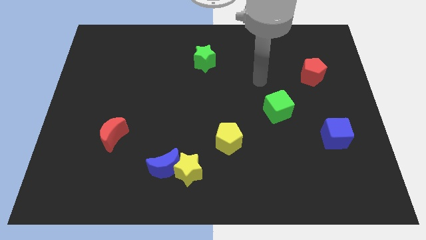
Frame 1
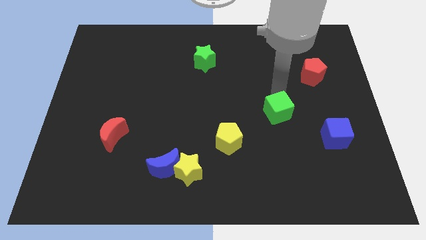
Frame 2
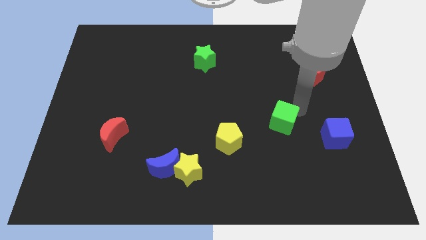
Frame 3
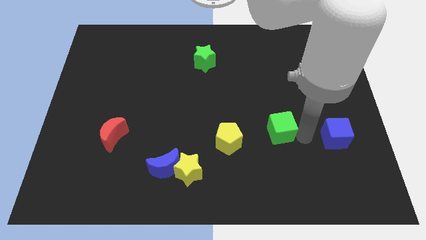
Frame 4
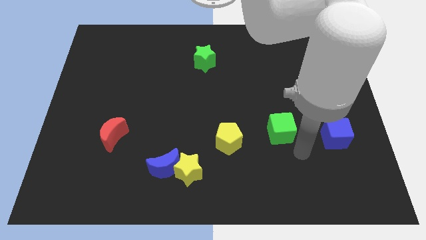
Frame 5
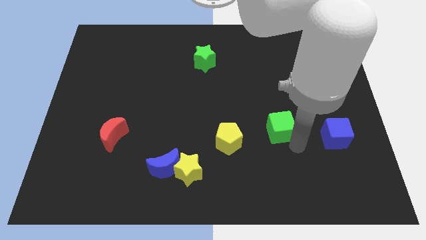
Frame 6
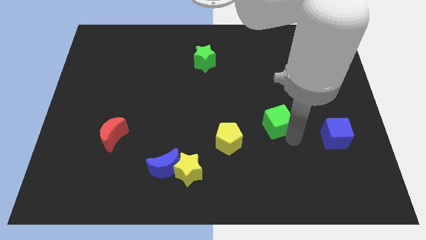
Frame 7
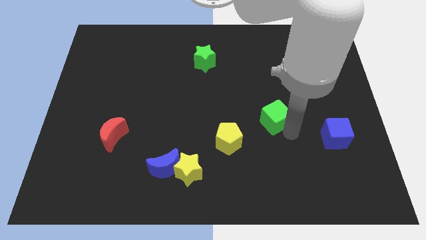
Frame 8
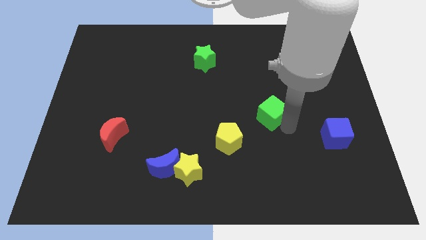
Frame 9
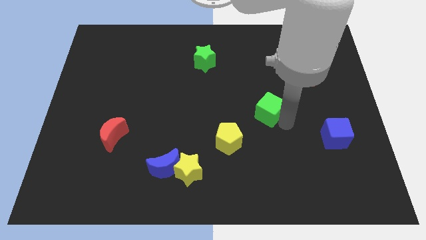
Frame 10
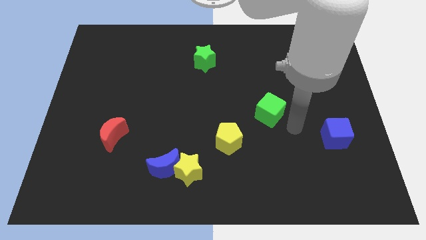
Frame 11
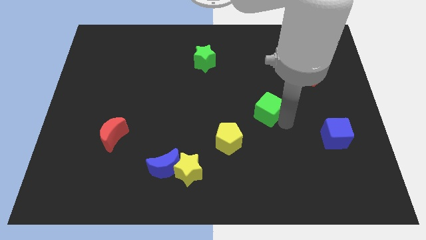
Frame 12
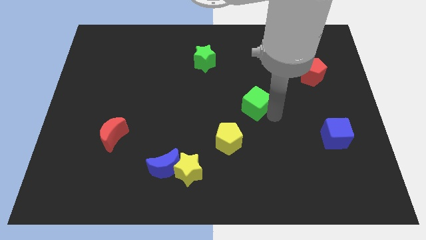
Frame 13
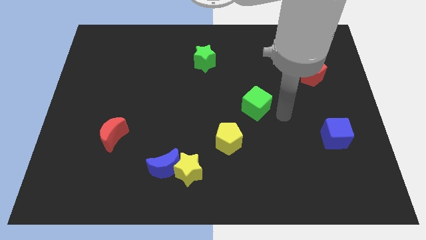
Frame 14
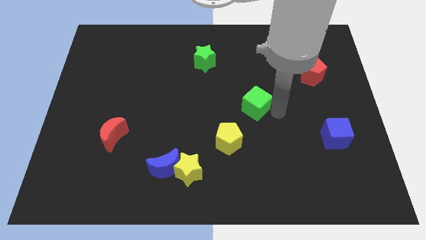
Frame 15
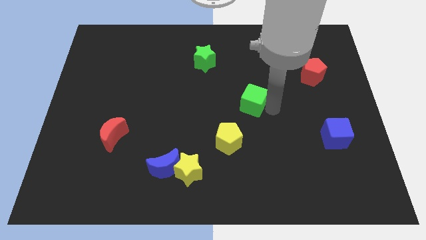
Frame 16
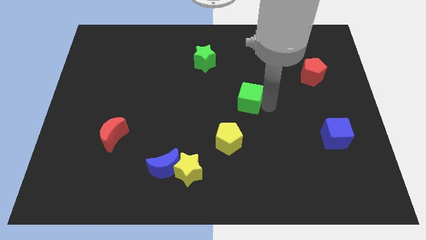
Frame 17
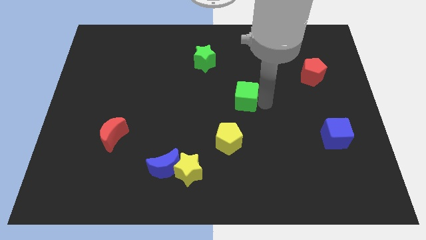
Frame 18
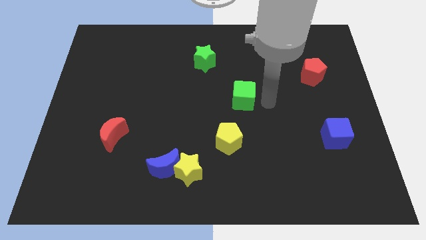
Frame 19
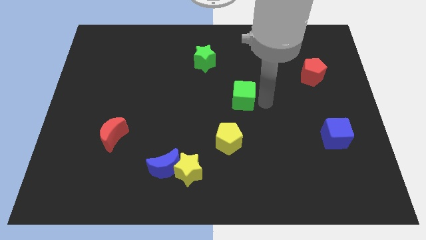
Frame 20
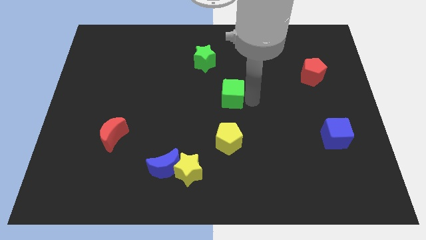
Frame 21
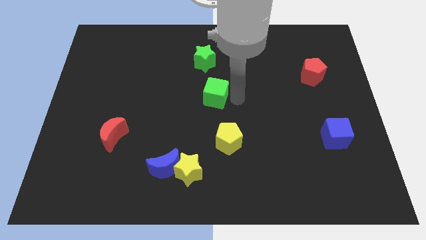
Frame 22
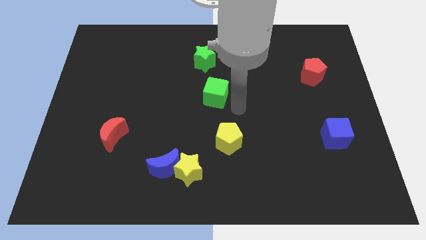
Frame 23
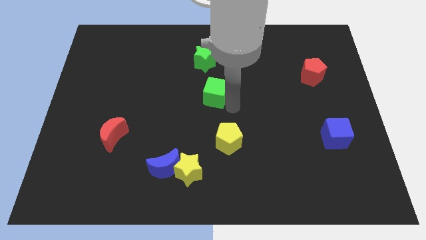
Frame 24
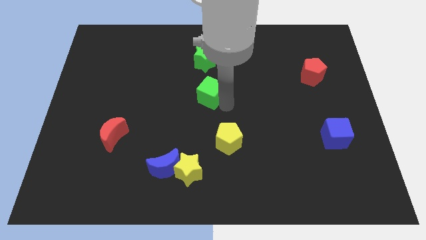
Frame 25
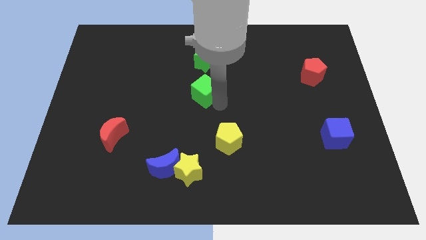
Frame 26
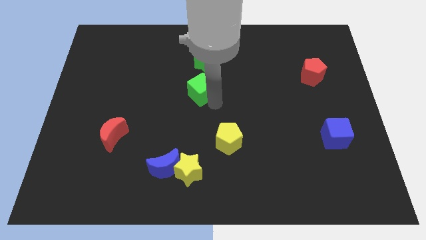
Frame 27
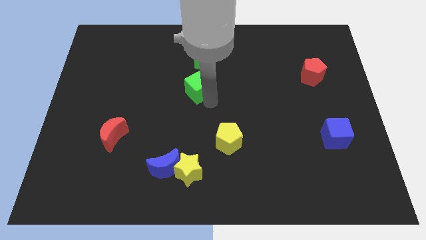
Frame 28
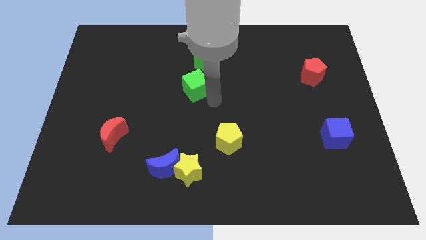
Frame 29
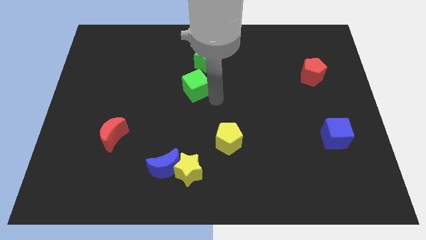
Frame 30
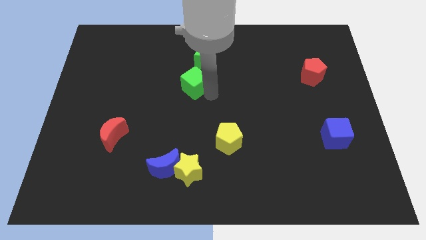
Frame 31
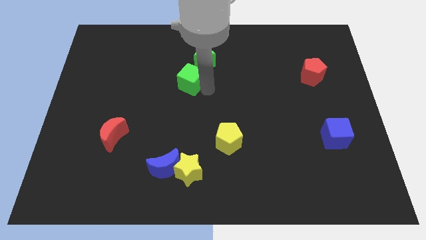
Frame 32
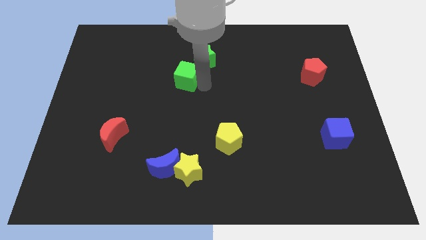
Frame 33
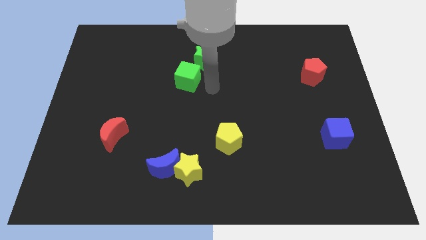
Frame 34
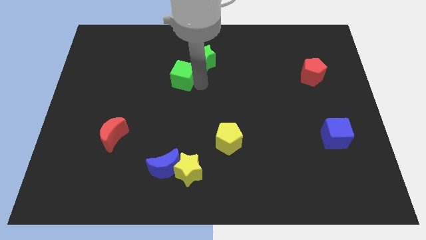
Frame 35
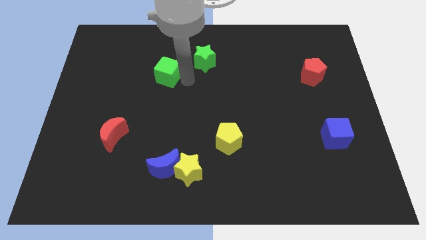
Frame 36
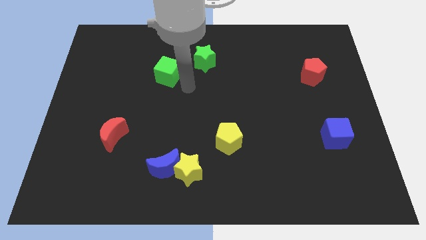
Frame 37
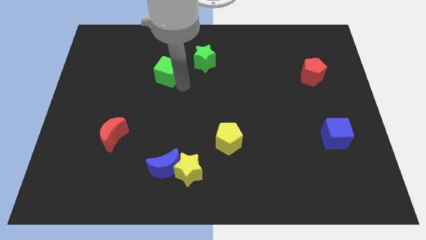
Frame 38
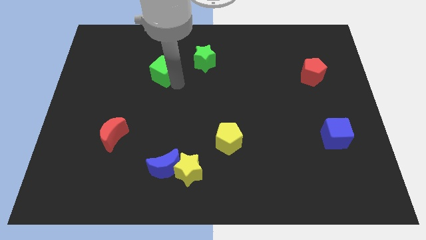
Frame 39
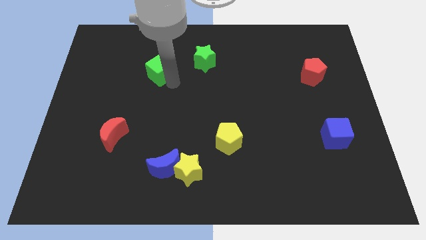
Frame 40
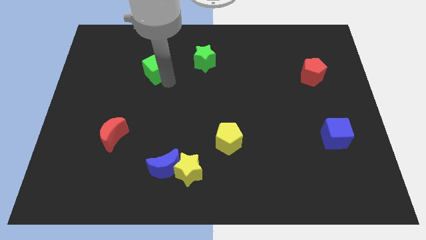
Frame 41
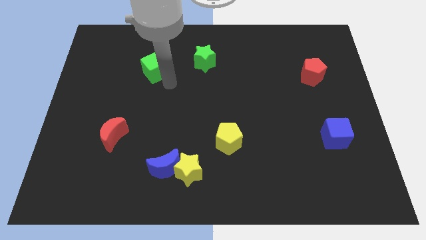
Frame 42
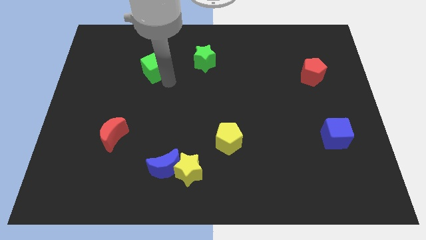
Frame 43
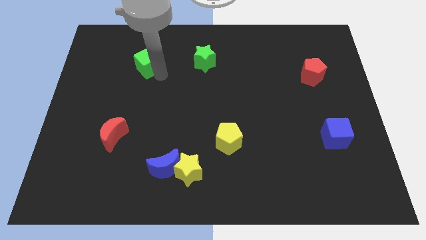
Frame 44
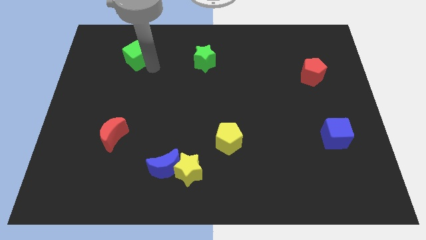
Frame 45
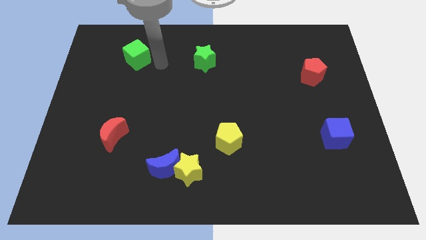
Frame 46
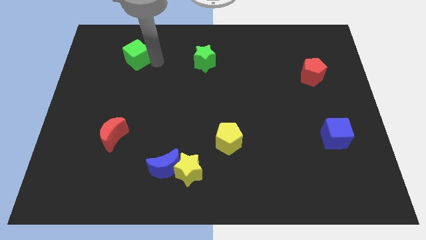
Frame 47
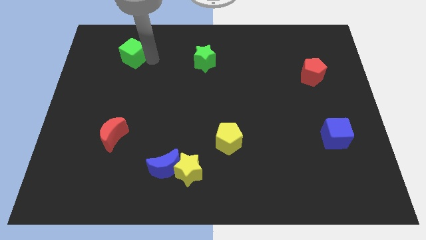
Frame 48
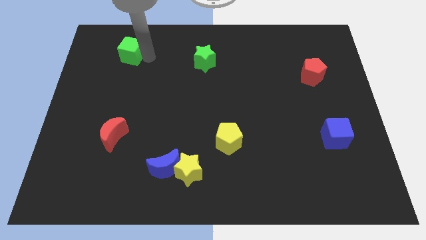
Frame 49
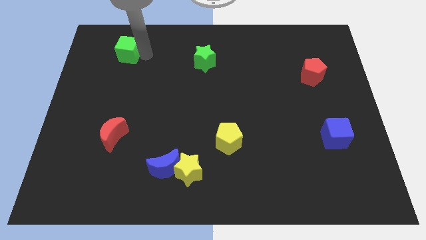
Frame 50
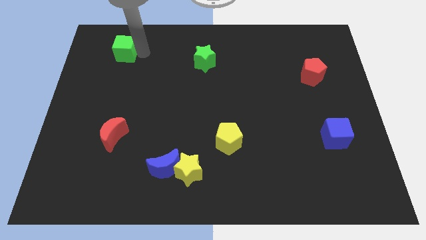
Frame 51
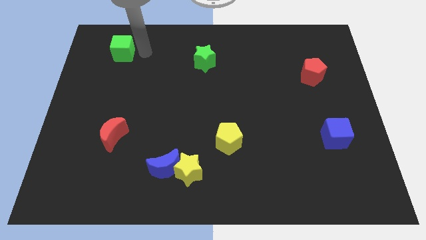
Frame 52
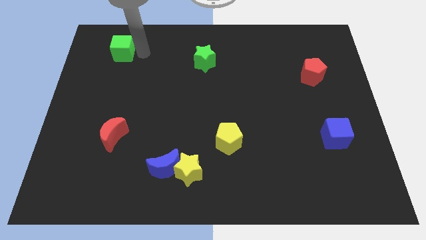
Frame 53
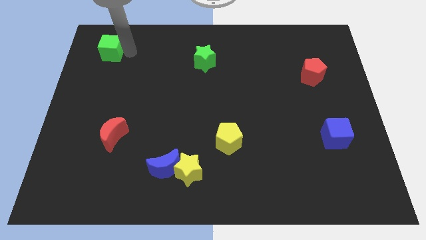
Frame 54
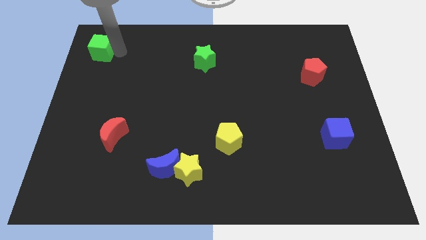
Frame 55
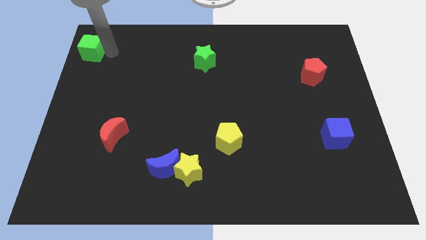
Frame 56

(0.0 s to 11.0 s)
slide the green cube to the top left

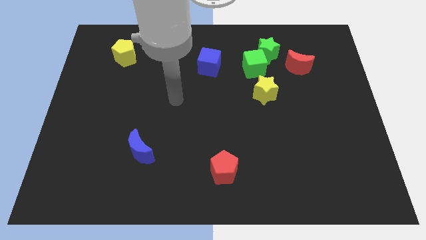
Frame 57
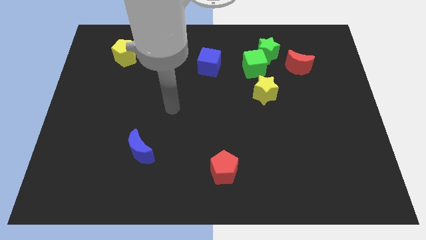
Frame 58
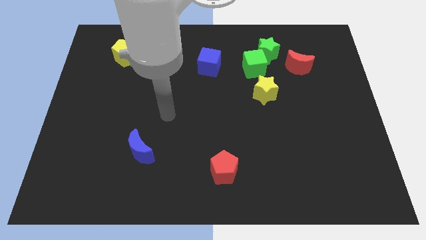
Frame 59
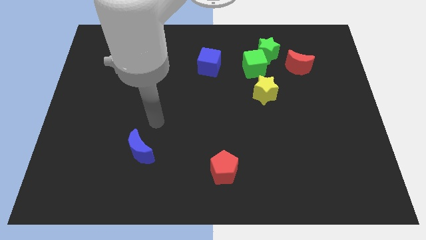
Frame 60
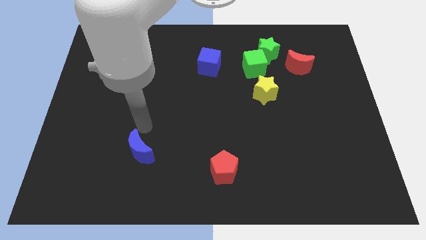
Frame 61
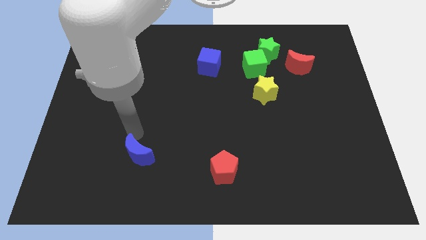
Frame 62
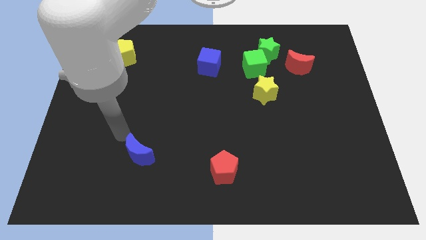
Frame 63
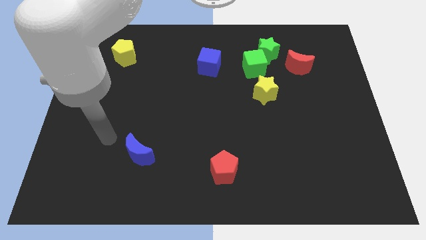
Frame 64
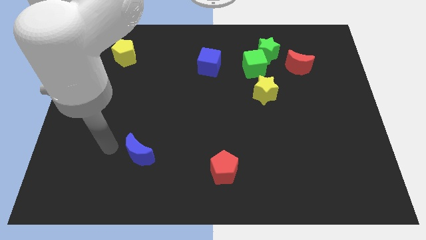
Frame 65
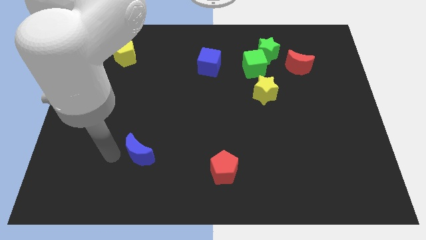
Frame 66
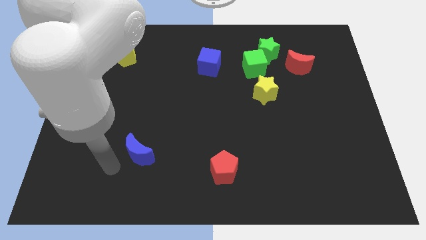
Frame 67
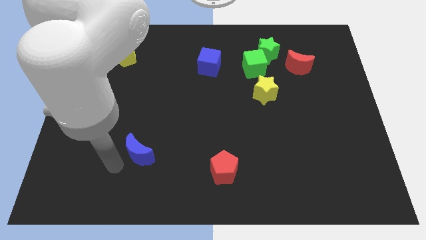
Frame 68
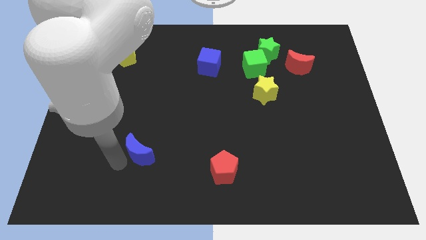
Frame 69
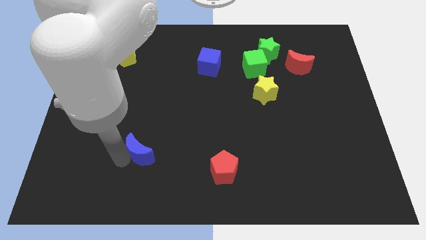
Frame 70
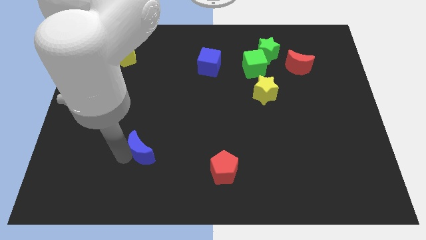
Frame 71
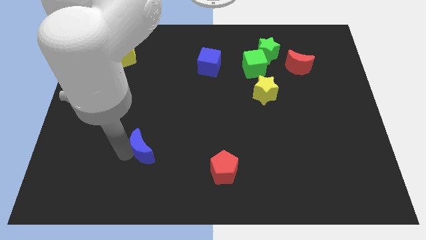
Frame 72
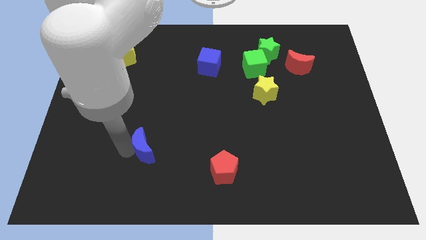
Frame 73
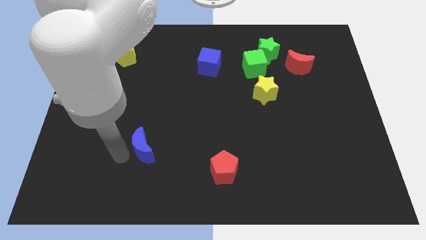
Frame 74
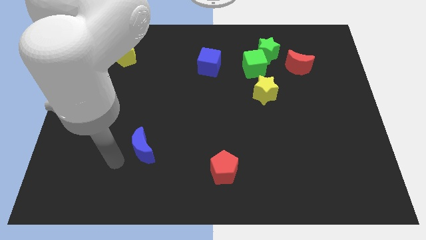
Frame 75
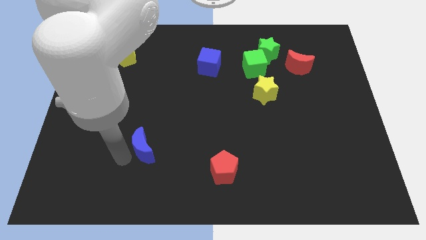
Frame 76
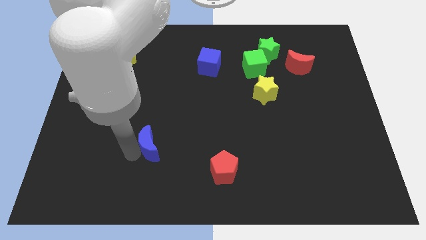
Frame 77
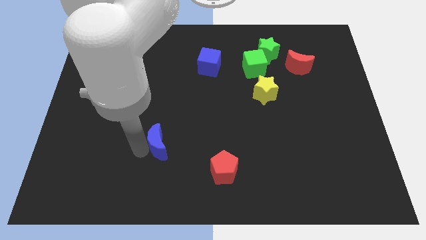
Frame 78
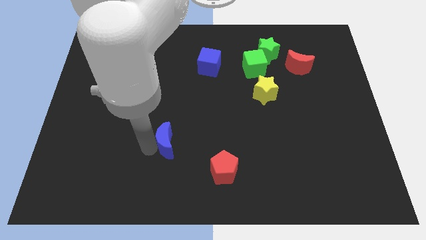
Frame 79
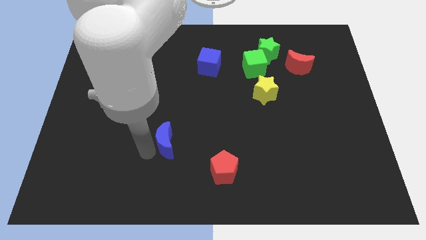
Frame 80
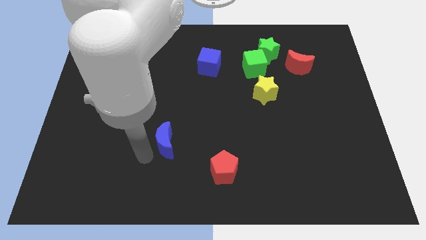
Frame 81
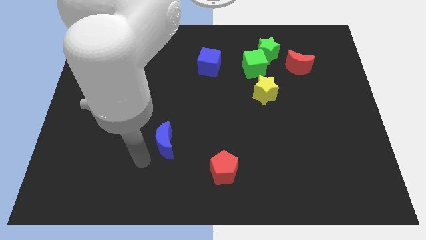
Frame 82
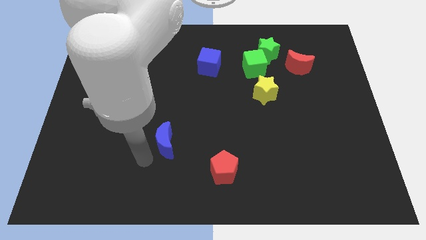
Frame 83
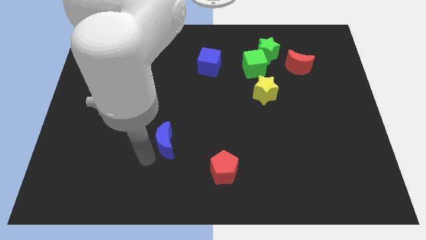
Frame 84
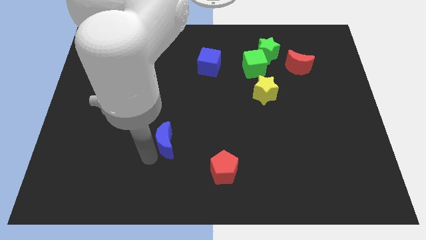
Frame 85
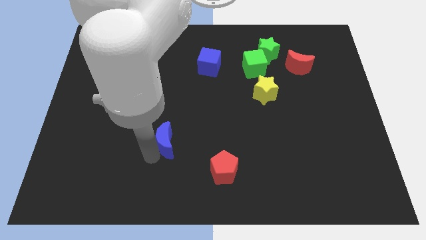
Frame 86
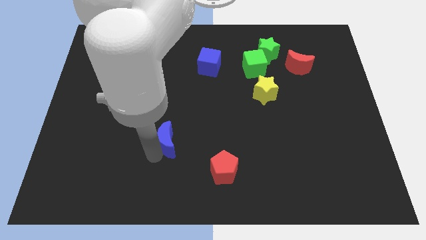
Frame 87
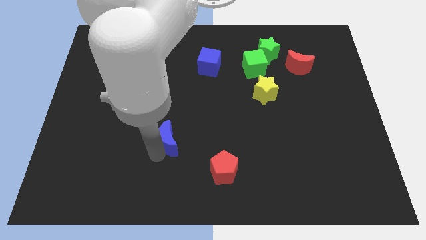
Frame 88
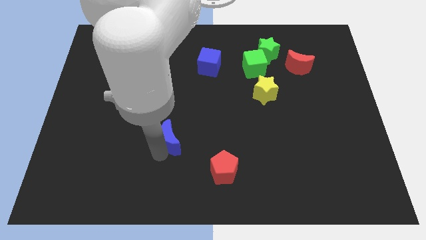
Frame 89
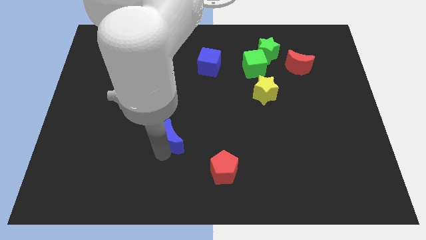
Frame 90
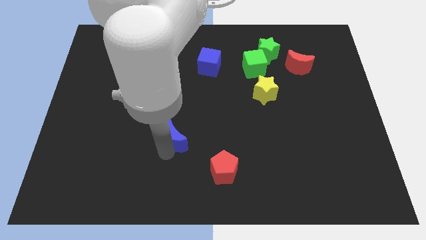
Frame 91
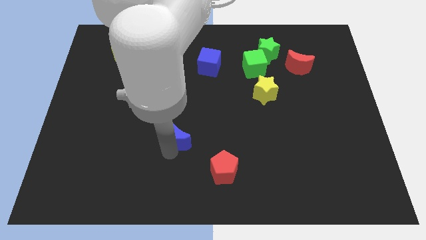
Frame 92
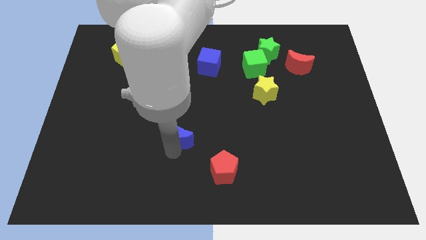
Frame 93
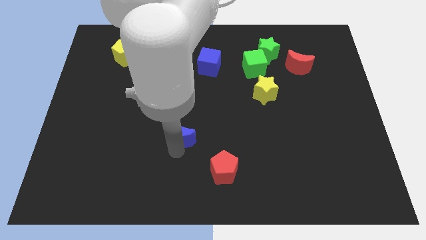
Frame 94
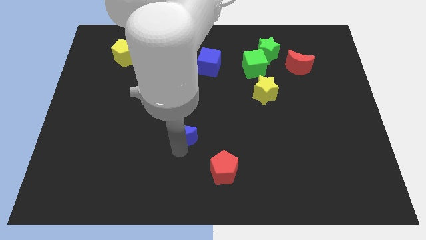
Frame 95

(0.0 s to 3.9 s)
put the blue moon to the middle
